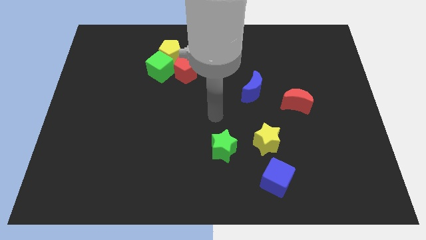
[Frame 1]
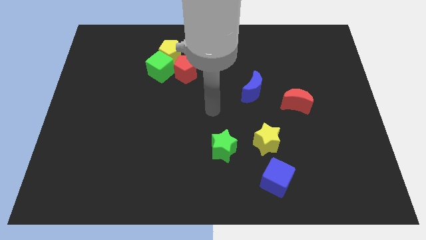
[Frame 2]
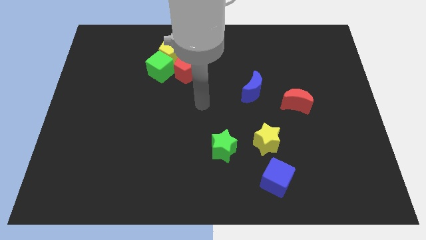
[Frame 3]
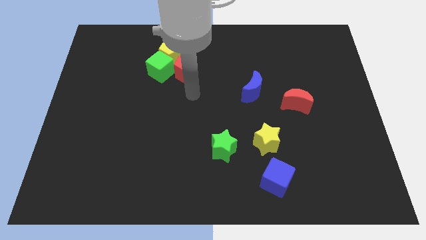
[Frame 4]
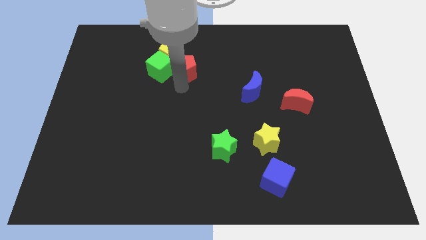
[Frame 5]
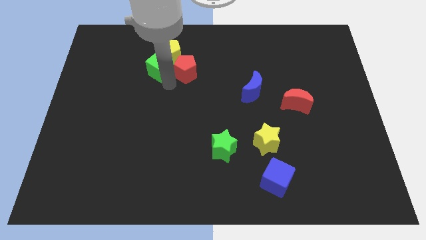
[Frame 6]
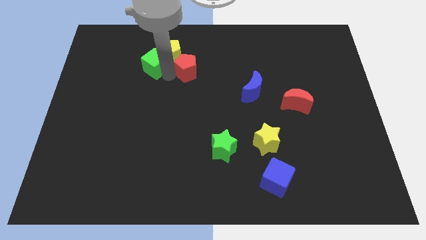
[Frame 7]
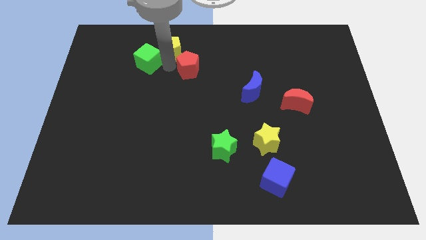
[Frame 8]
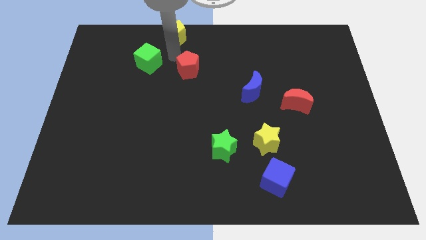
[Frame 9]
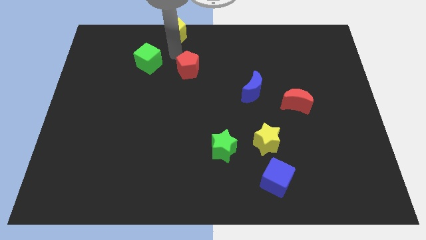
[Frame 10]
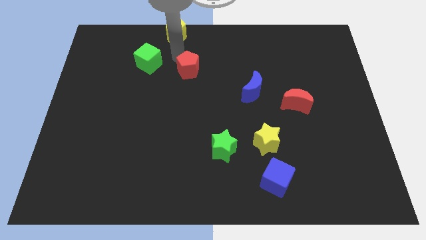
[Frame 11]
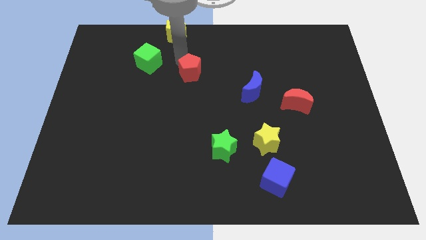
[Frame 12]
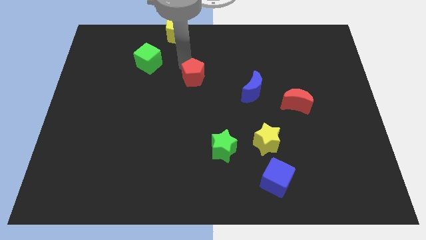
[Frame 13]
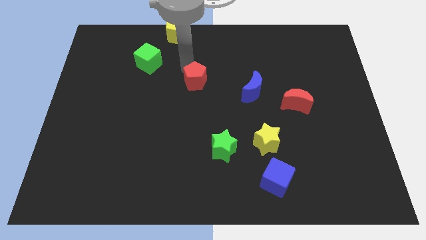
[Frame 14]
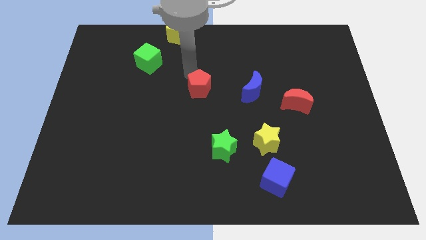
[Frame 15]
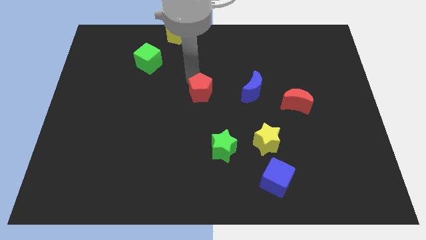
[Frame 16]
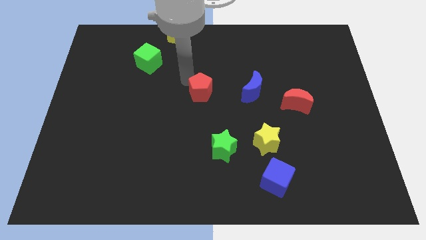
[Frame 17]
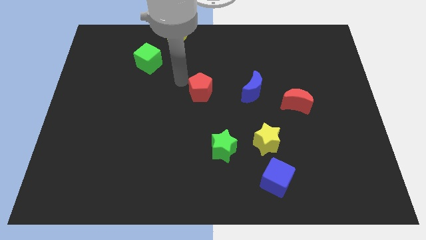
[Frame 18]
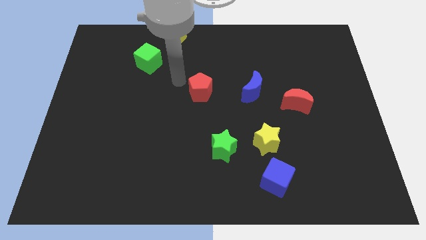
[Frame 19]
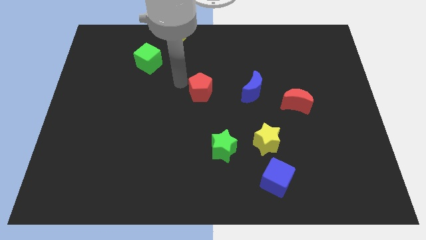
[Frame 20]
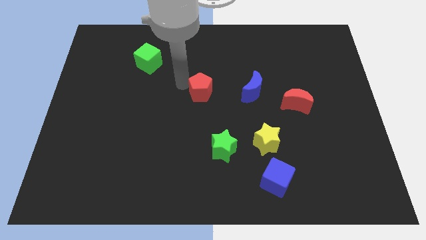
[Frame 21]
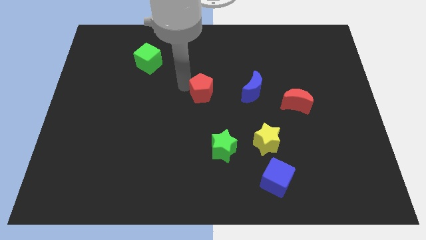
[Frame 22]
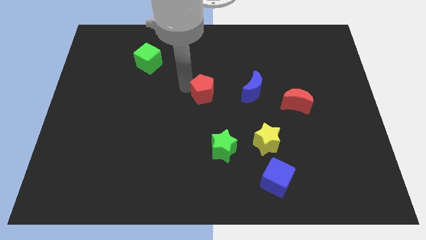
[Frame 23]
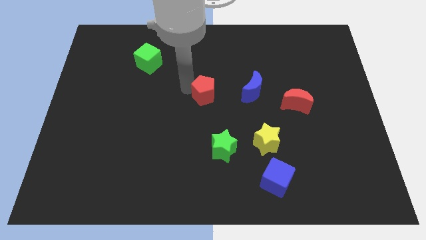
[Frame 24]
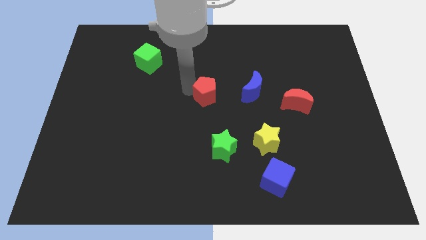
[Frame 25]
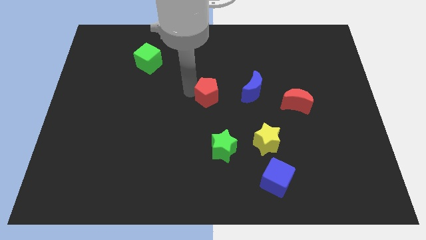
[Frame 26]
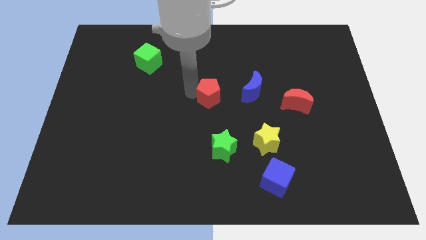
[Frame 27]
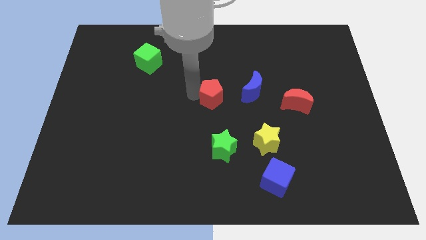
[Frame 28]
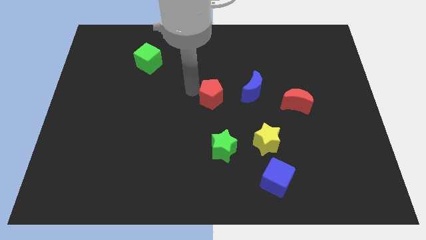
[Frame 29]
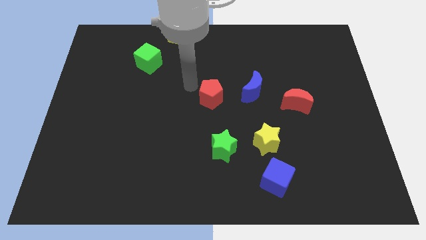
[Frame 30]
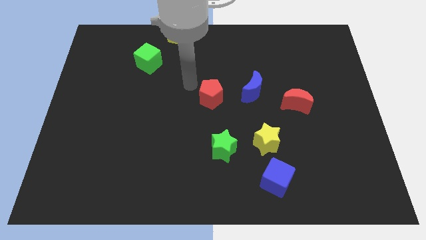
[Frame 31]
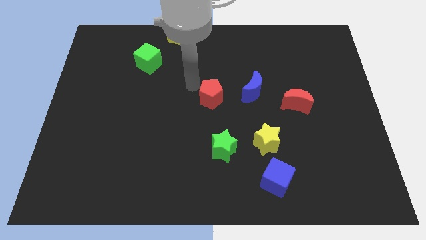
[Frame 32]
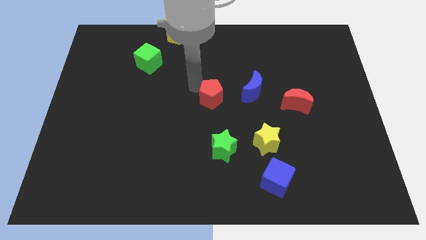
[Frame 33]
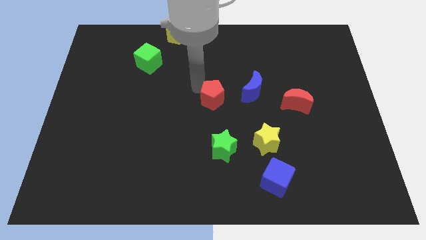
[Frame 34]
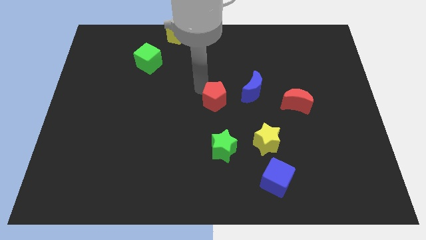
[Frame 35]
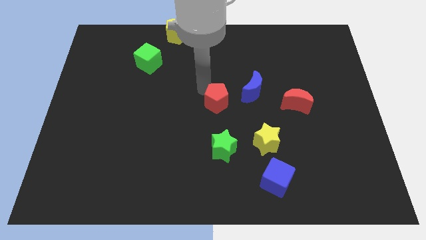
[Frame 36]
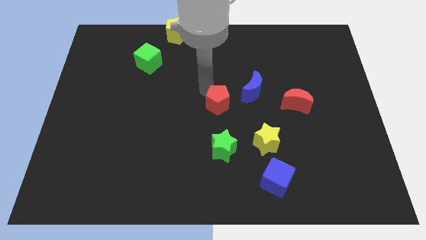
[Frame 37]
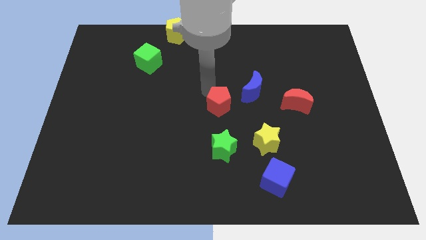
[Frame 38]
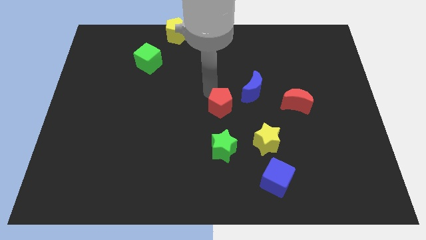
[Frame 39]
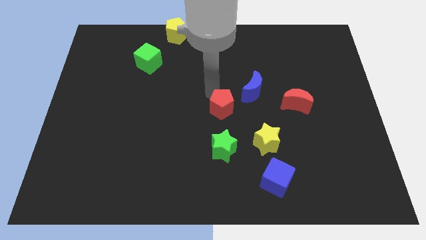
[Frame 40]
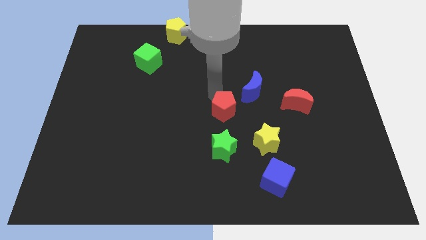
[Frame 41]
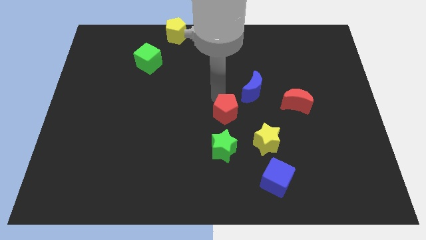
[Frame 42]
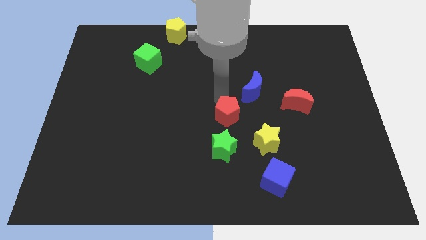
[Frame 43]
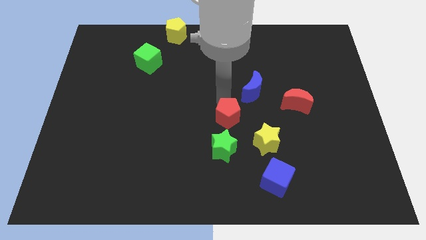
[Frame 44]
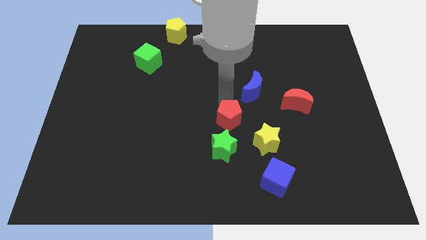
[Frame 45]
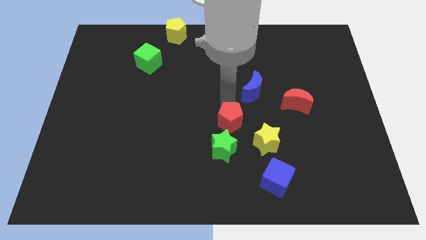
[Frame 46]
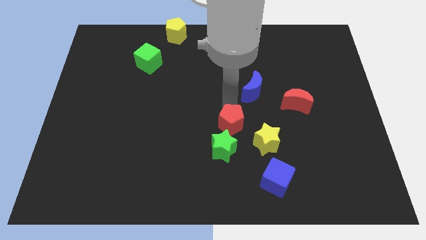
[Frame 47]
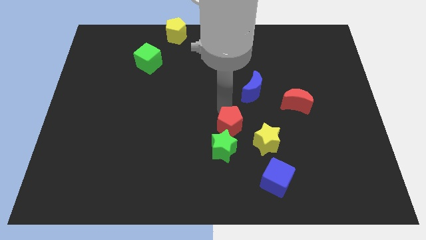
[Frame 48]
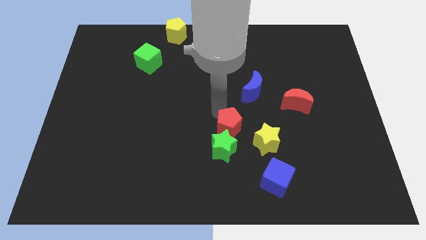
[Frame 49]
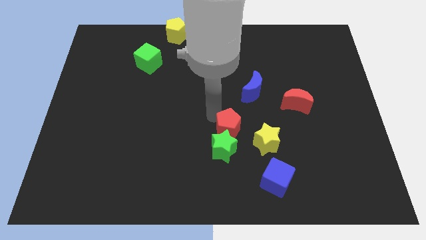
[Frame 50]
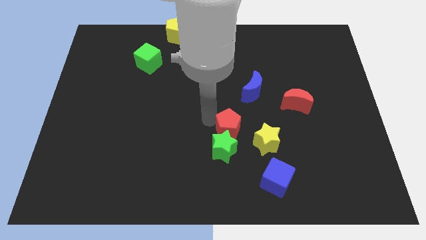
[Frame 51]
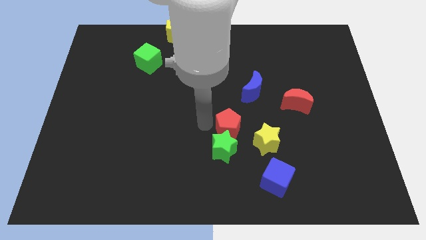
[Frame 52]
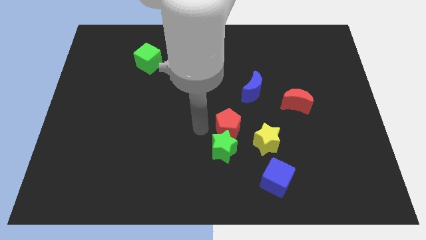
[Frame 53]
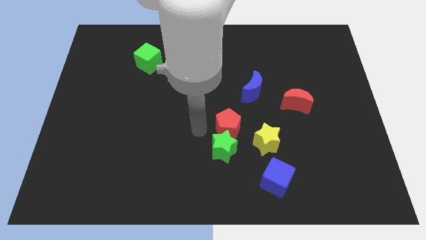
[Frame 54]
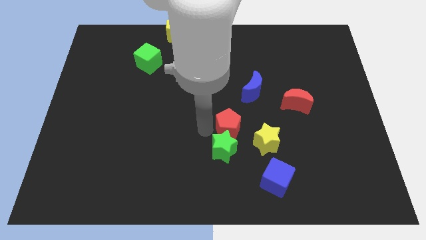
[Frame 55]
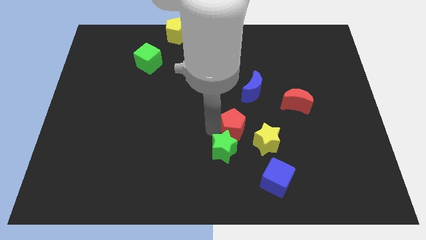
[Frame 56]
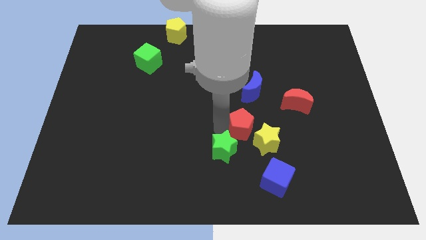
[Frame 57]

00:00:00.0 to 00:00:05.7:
push the red pentagon to the bottom side of the blue moon
